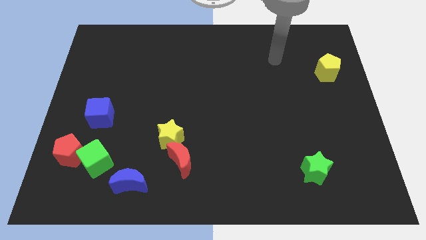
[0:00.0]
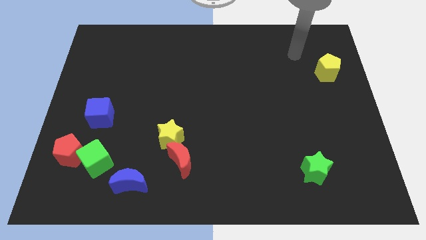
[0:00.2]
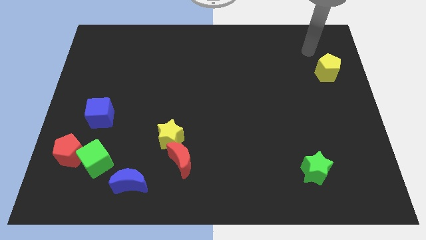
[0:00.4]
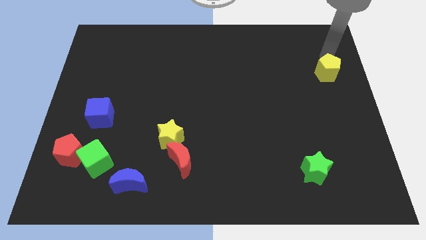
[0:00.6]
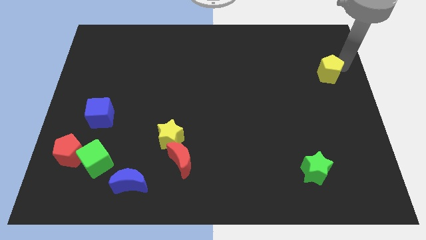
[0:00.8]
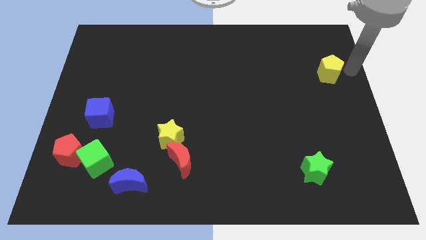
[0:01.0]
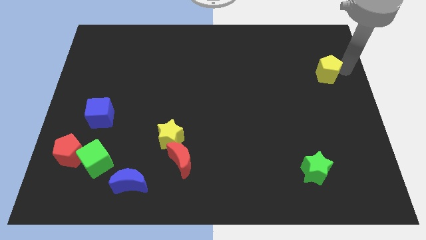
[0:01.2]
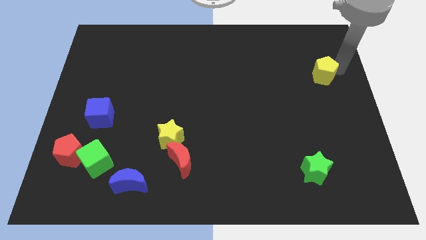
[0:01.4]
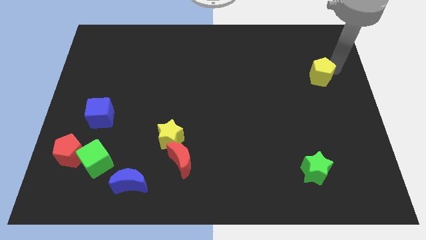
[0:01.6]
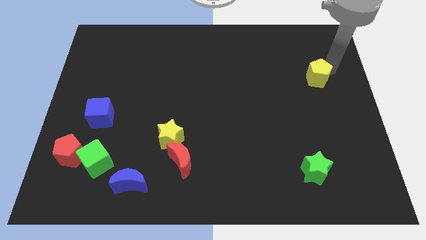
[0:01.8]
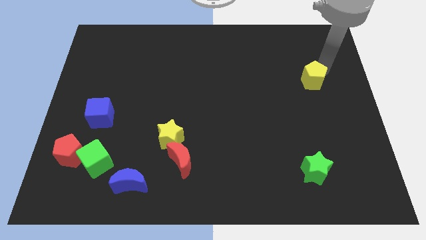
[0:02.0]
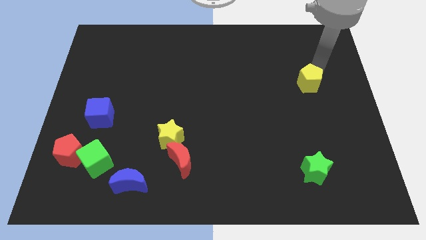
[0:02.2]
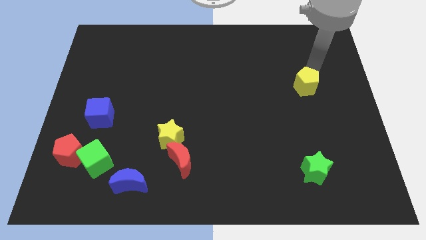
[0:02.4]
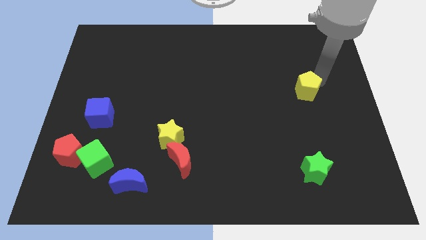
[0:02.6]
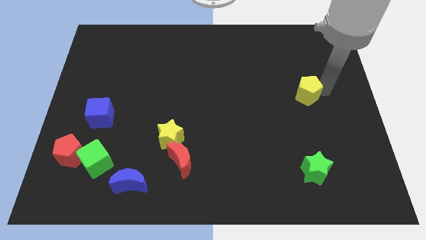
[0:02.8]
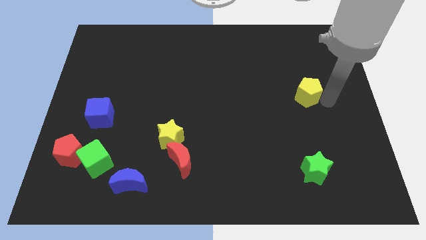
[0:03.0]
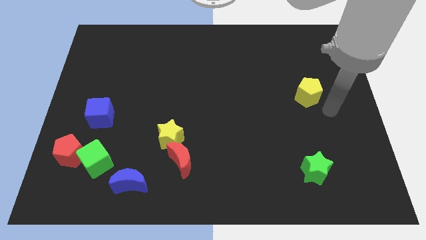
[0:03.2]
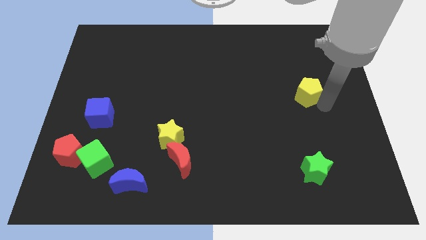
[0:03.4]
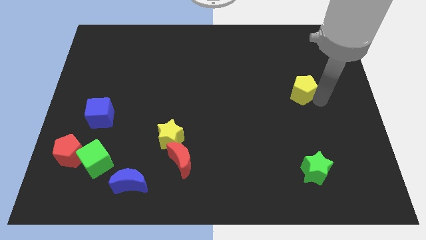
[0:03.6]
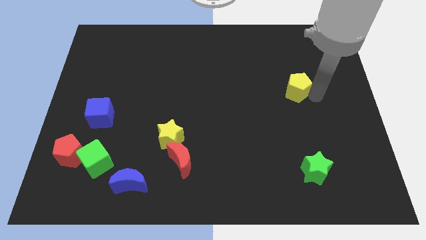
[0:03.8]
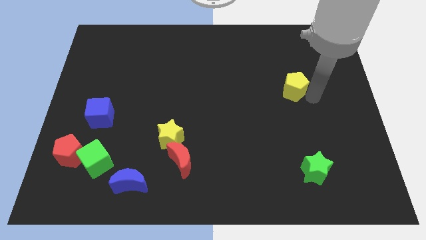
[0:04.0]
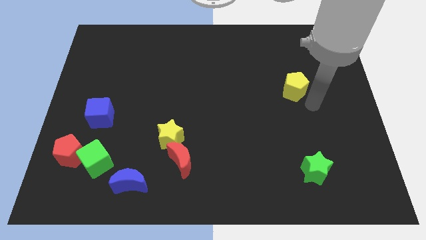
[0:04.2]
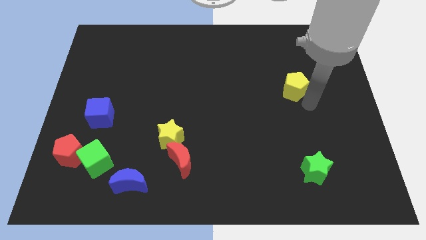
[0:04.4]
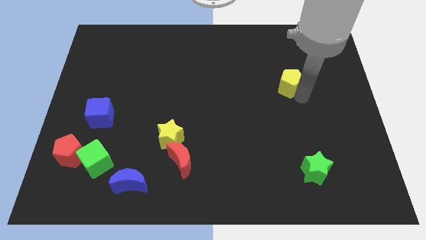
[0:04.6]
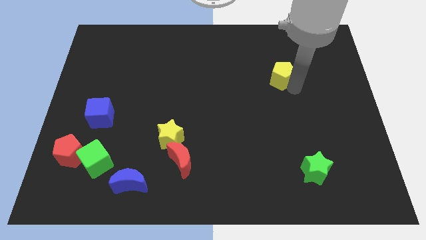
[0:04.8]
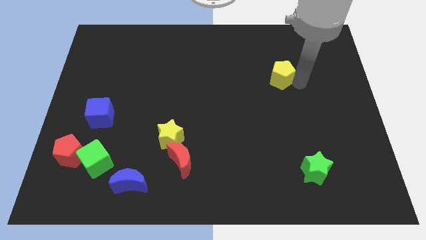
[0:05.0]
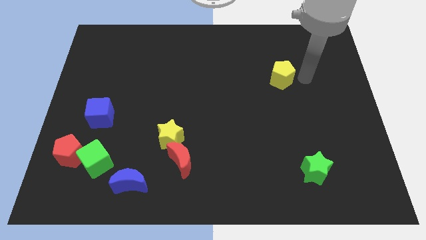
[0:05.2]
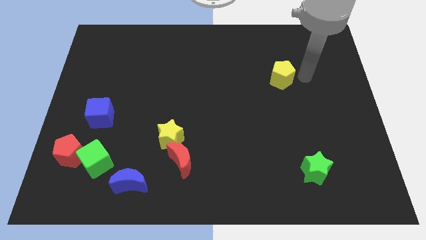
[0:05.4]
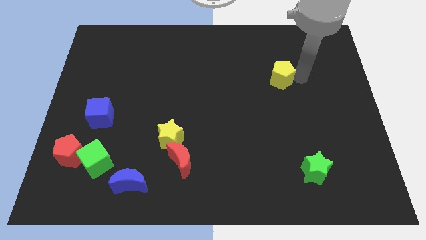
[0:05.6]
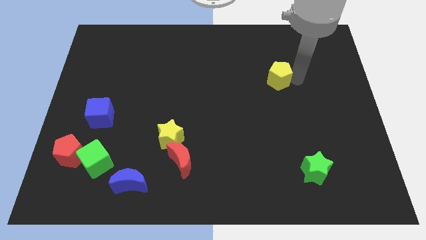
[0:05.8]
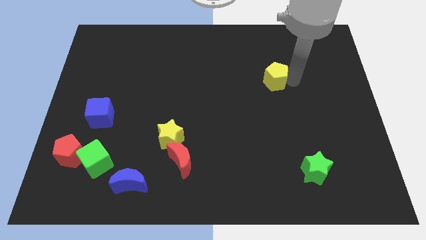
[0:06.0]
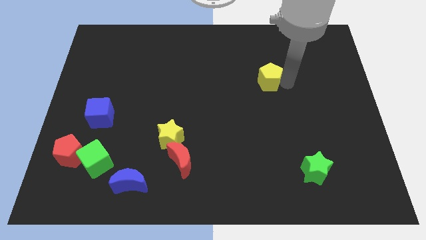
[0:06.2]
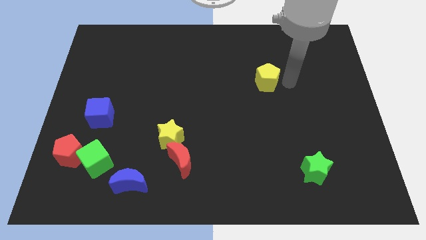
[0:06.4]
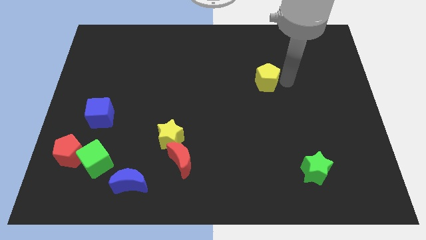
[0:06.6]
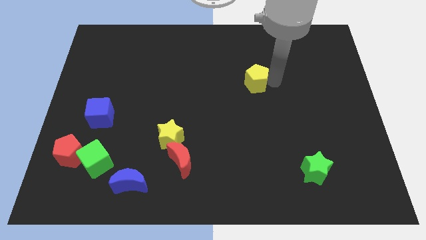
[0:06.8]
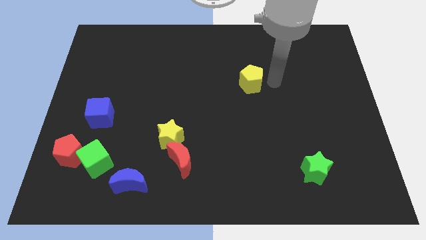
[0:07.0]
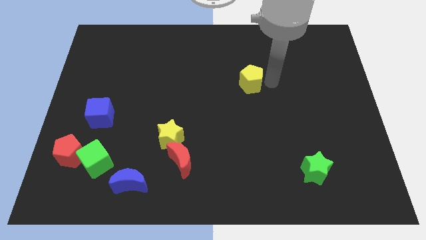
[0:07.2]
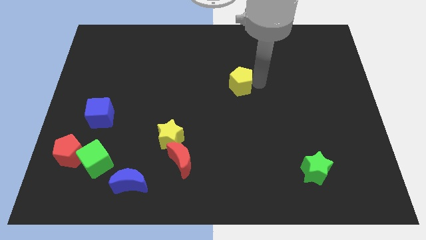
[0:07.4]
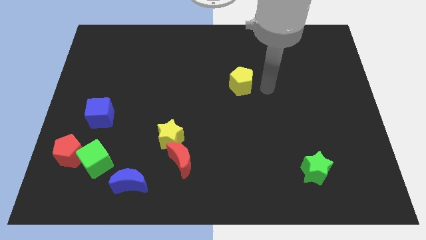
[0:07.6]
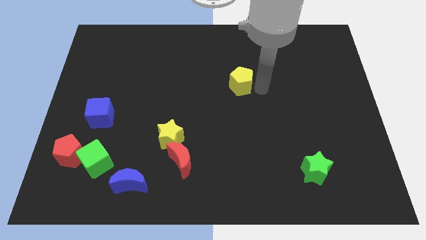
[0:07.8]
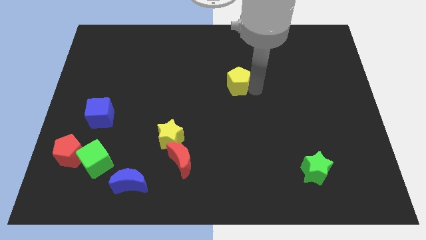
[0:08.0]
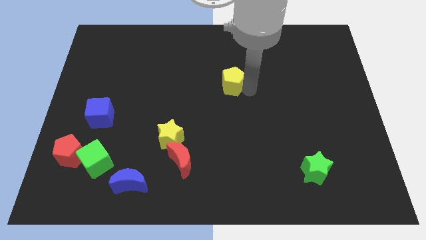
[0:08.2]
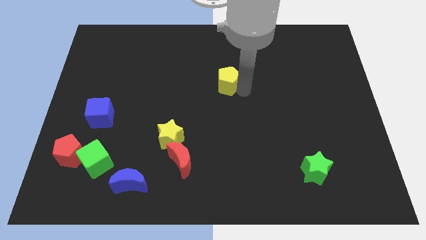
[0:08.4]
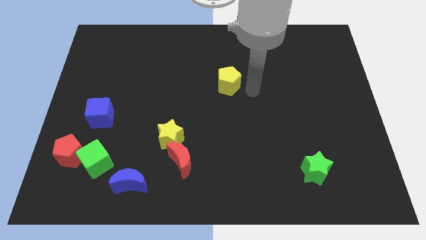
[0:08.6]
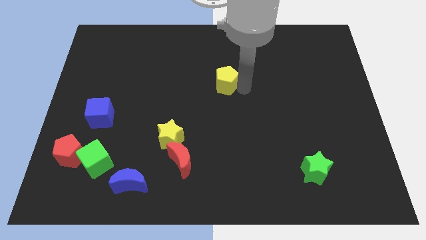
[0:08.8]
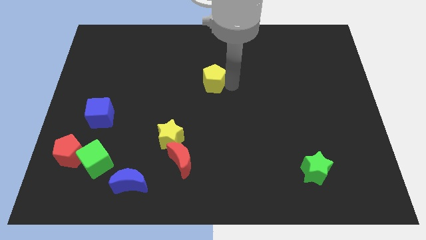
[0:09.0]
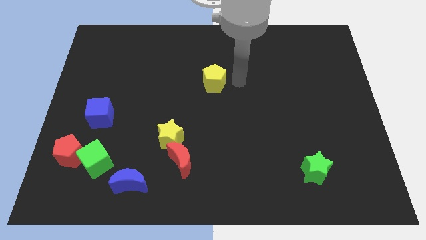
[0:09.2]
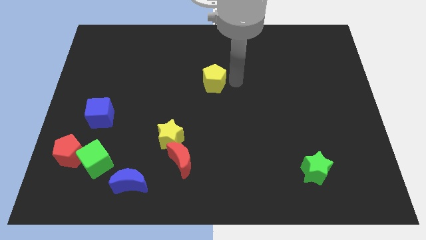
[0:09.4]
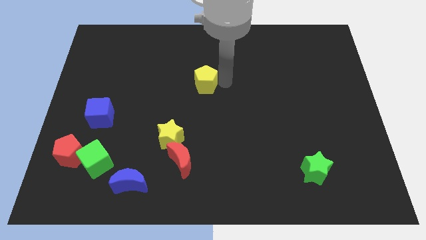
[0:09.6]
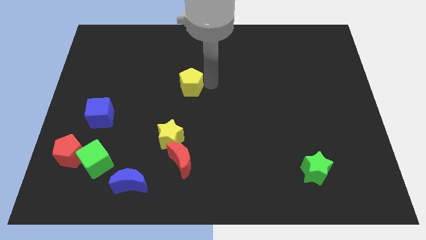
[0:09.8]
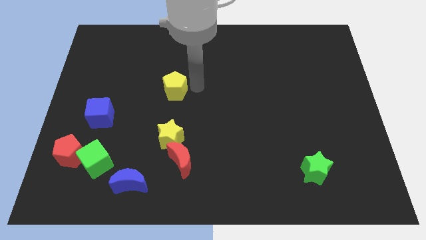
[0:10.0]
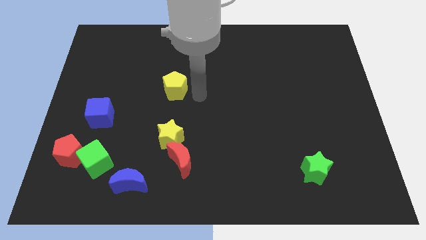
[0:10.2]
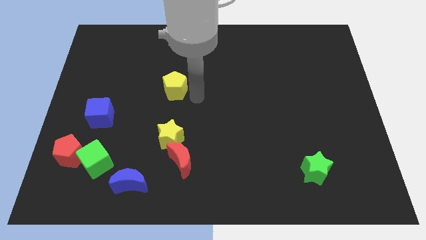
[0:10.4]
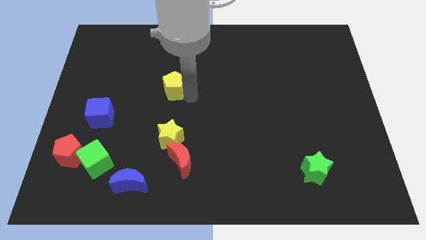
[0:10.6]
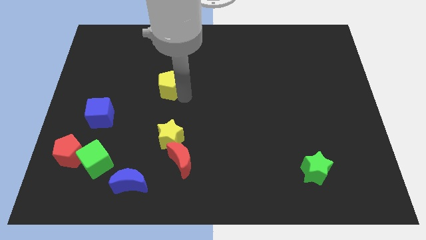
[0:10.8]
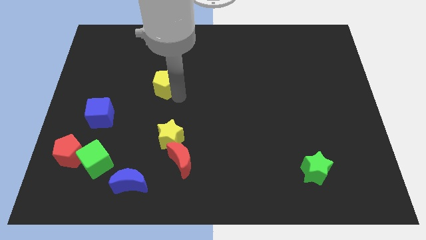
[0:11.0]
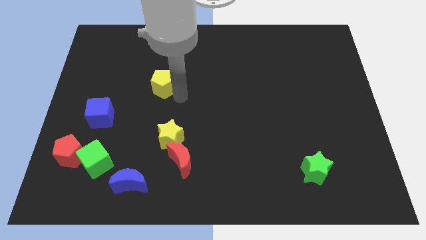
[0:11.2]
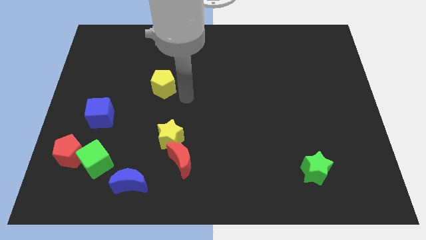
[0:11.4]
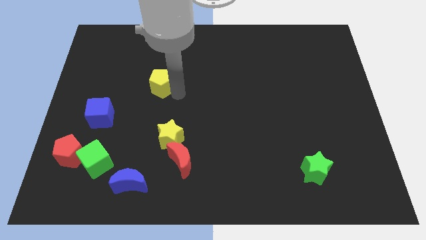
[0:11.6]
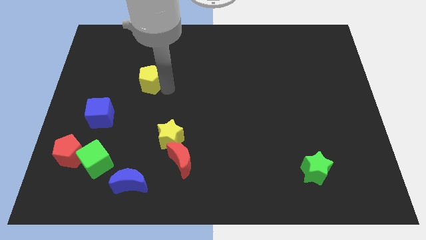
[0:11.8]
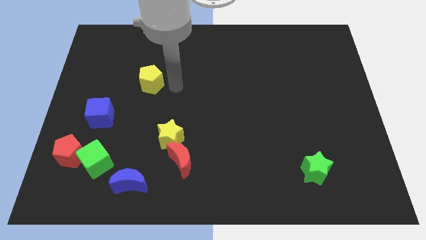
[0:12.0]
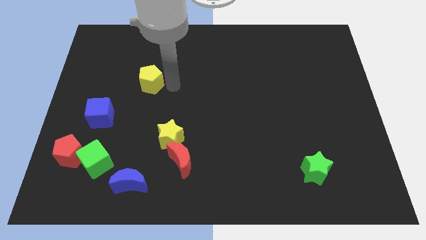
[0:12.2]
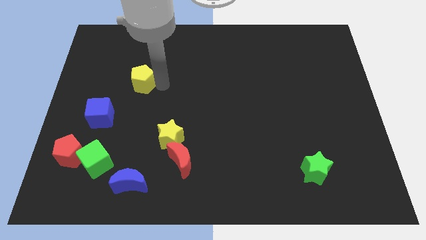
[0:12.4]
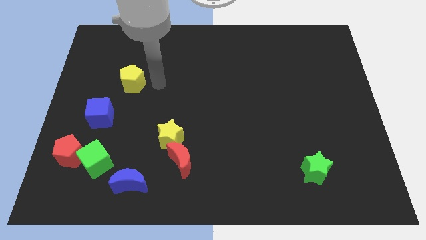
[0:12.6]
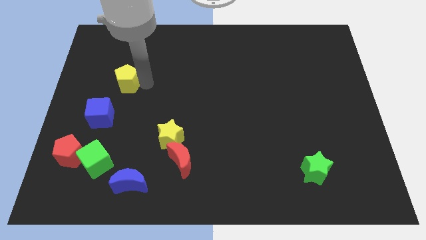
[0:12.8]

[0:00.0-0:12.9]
move the yellow pentagon above the blue cube

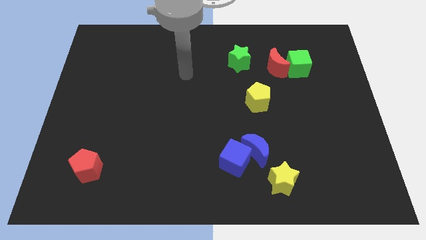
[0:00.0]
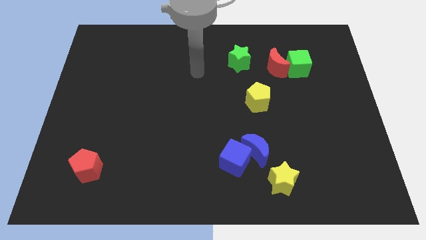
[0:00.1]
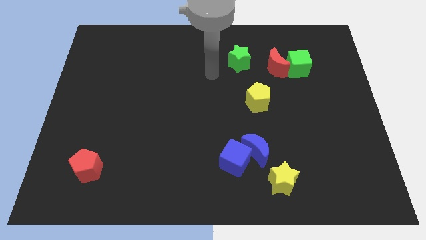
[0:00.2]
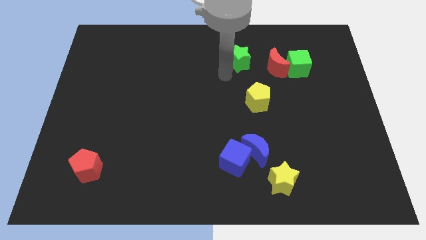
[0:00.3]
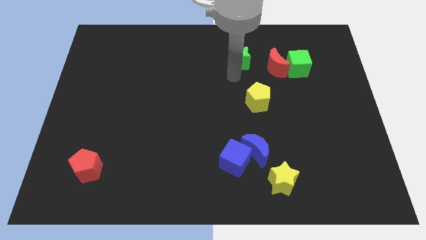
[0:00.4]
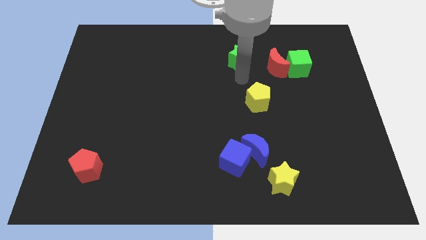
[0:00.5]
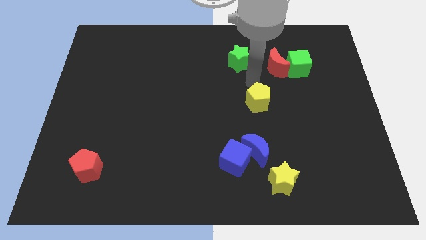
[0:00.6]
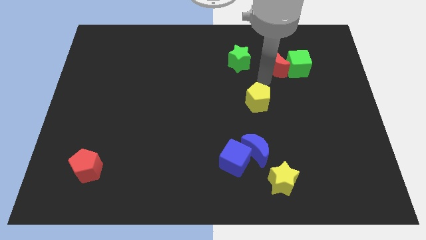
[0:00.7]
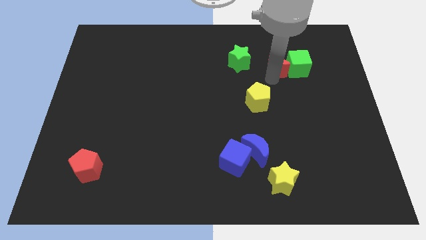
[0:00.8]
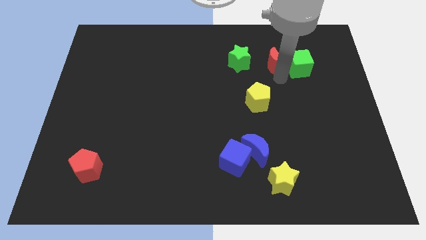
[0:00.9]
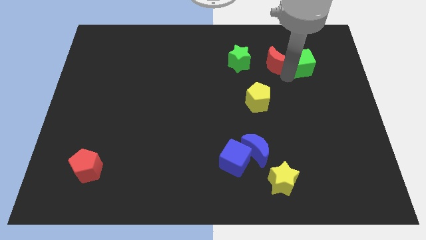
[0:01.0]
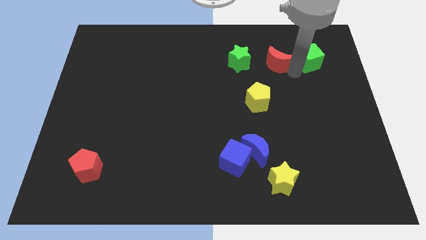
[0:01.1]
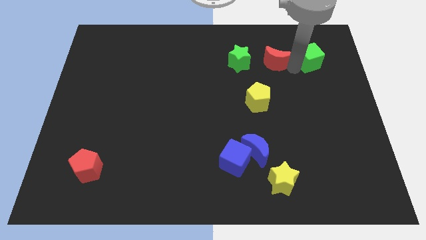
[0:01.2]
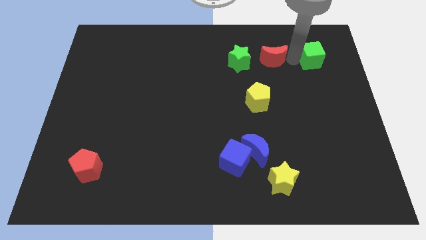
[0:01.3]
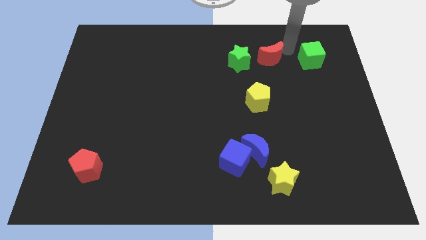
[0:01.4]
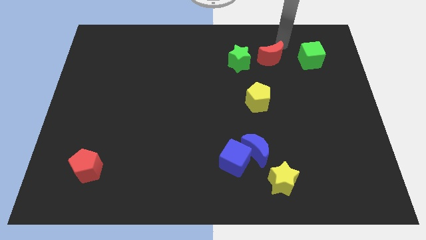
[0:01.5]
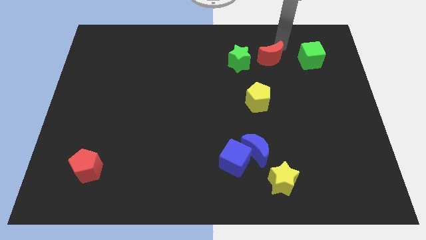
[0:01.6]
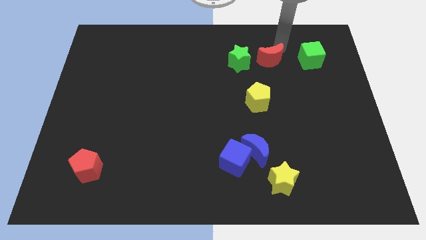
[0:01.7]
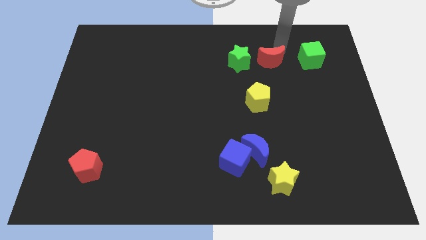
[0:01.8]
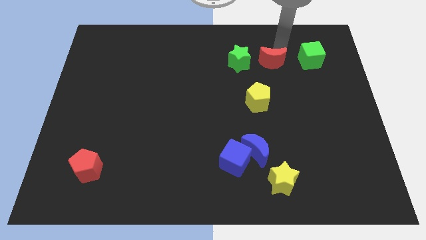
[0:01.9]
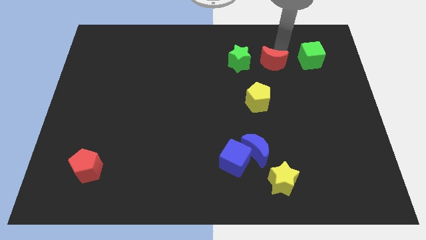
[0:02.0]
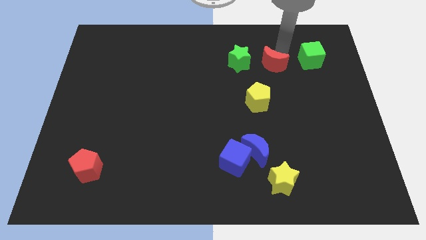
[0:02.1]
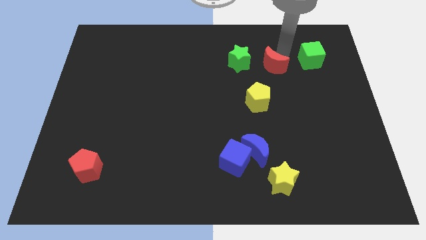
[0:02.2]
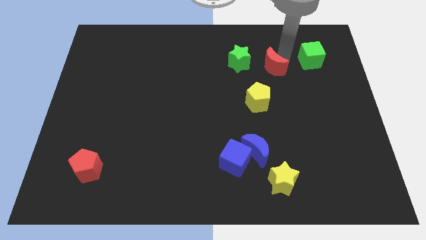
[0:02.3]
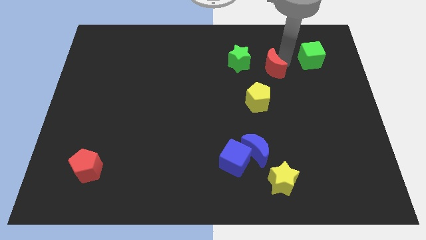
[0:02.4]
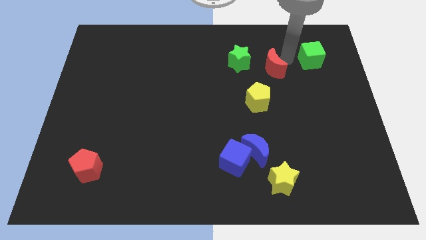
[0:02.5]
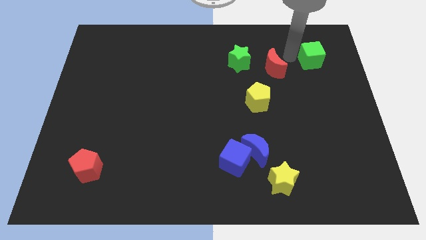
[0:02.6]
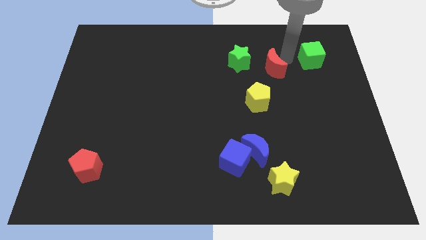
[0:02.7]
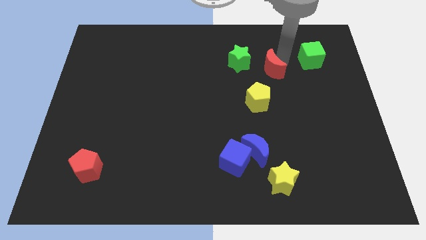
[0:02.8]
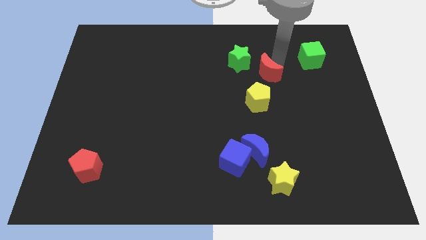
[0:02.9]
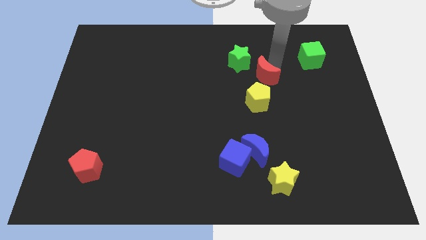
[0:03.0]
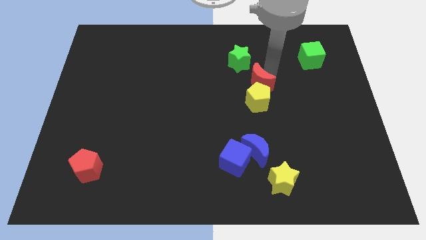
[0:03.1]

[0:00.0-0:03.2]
put the red moon diagonally up and to the left of the yellow pentagon
